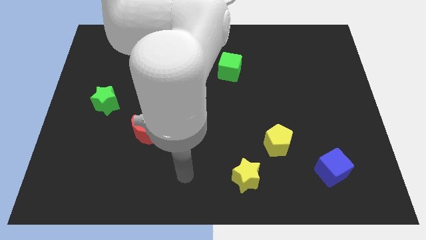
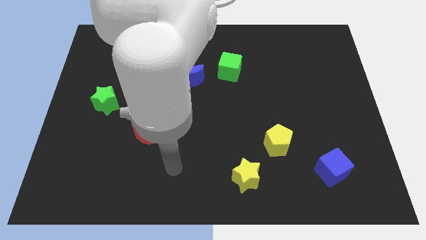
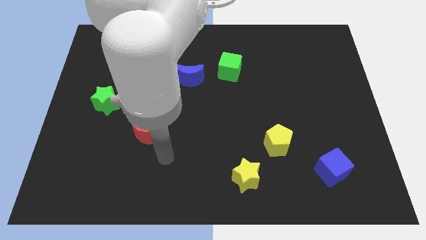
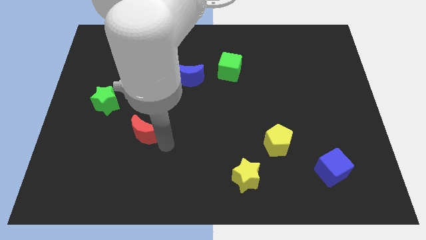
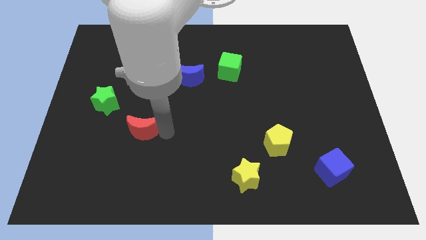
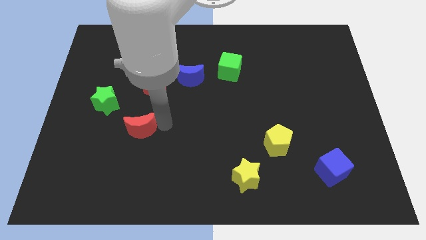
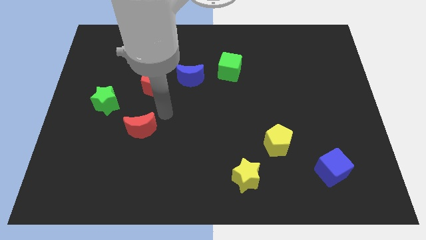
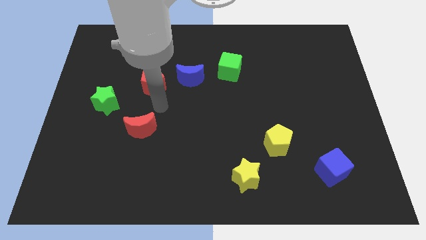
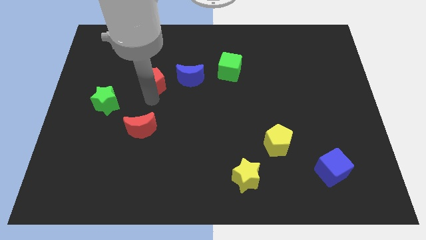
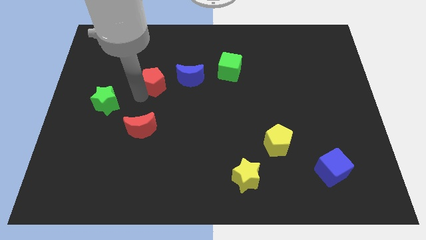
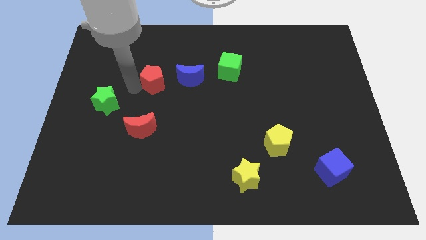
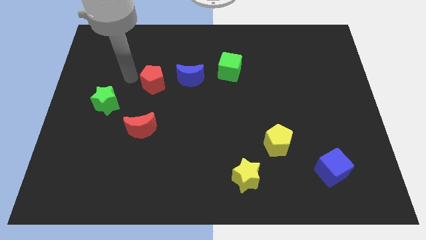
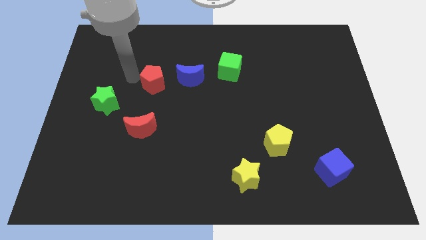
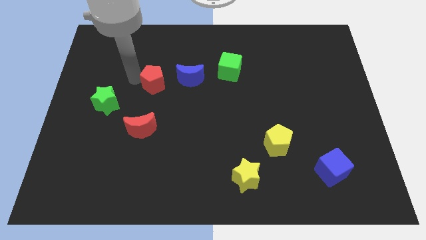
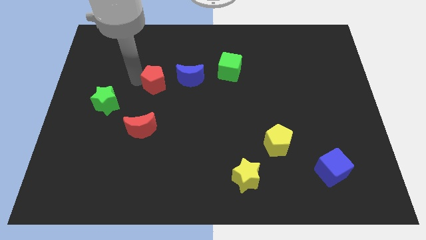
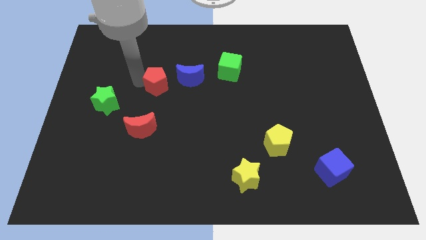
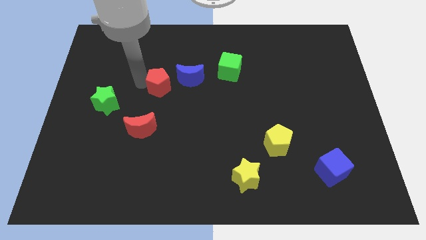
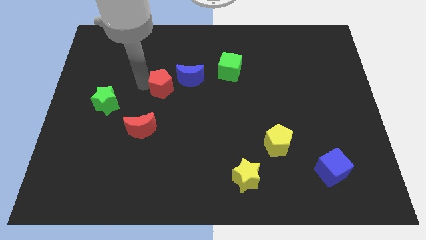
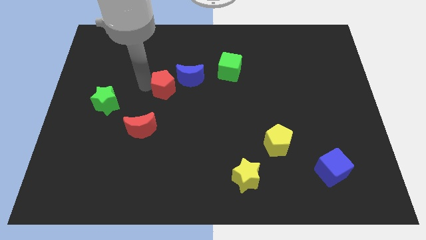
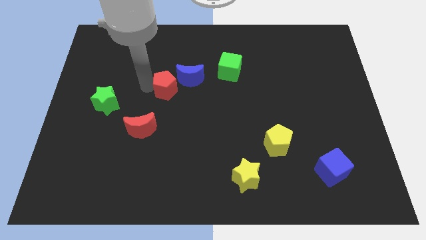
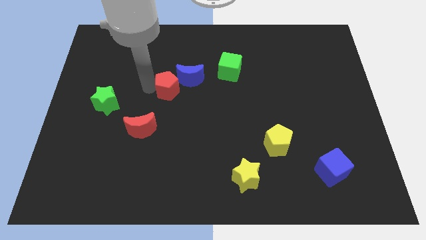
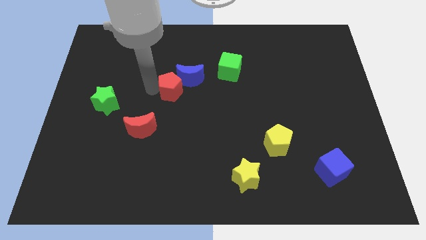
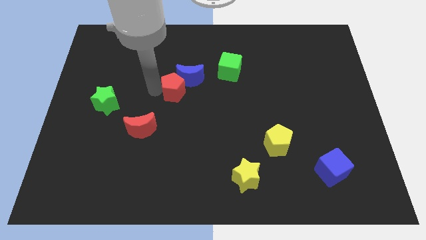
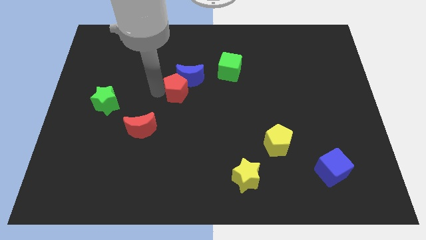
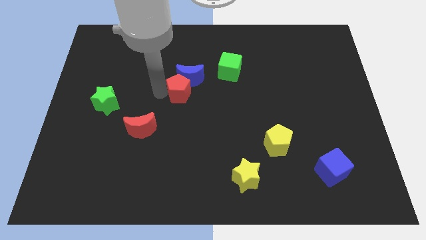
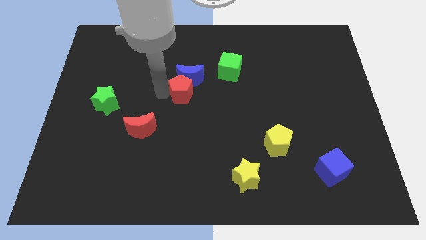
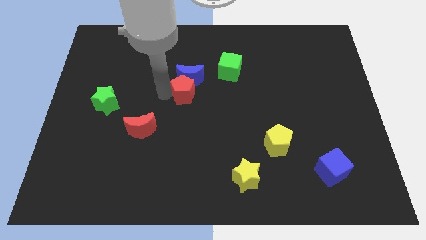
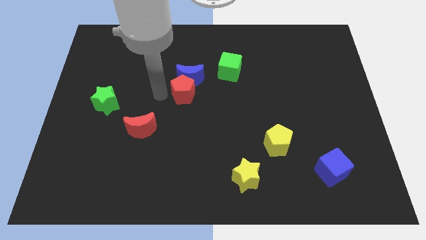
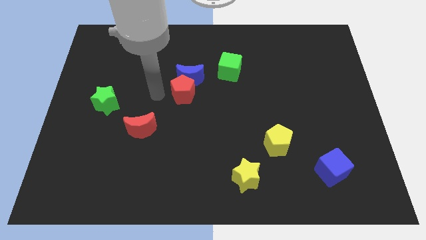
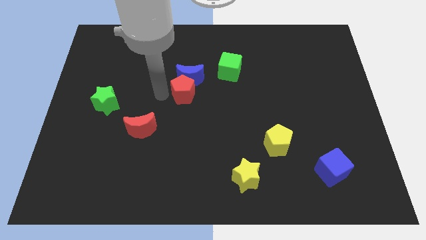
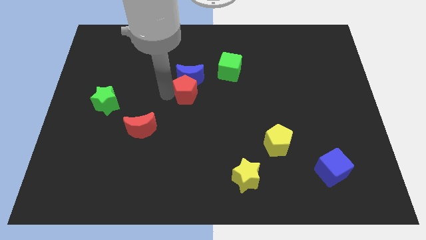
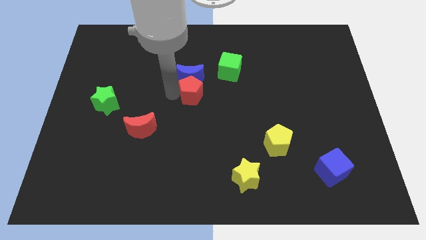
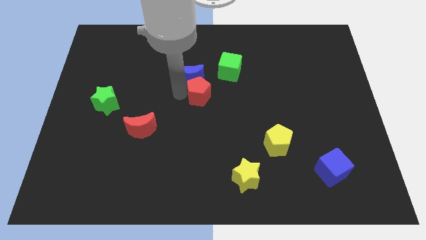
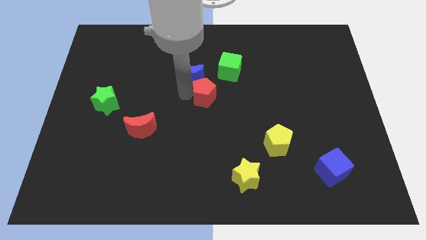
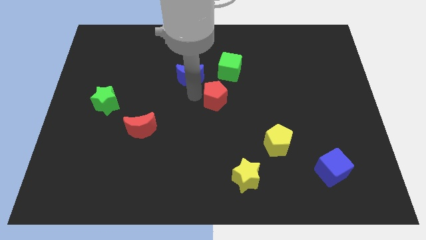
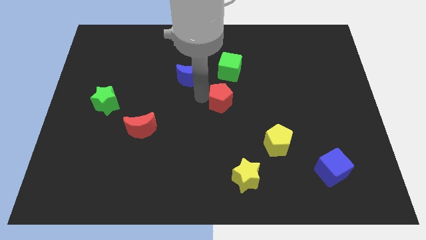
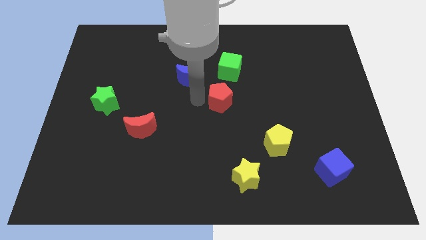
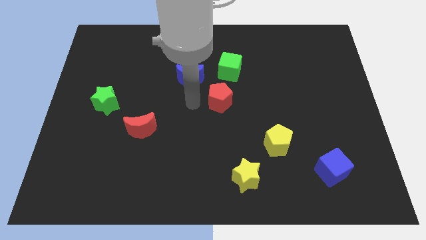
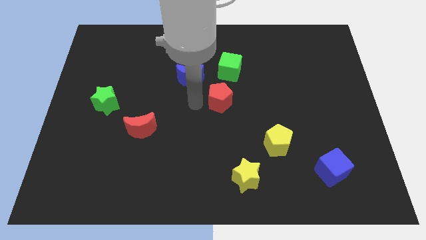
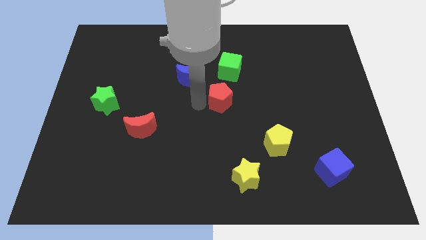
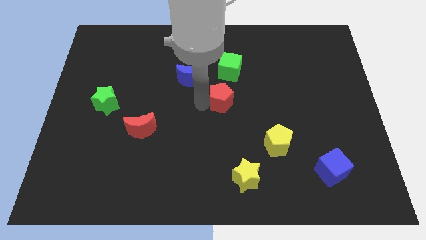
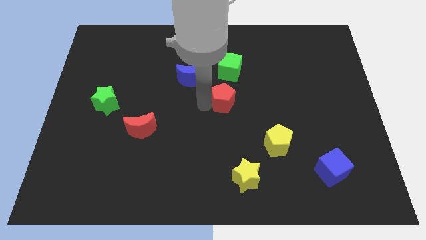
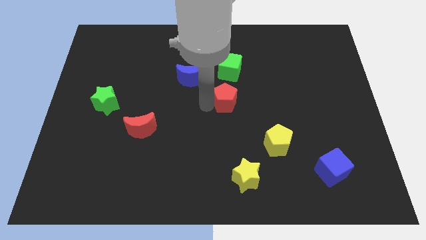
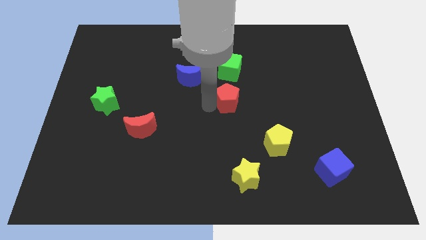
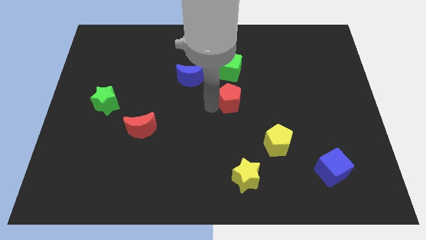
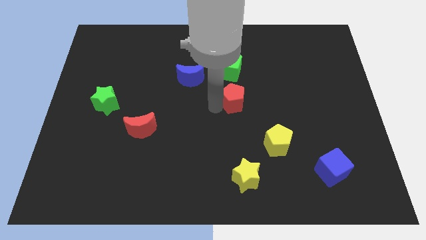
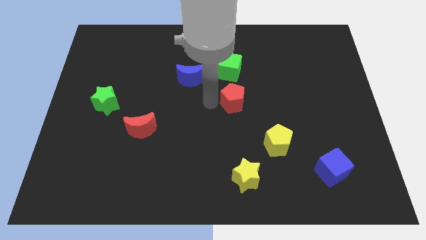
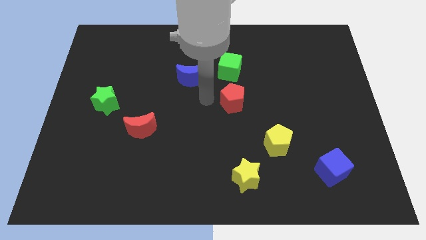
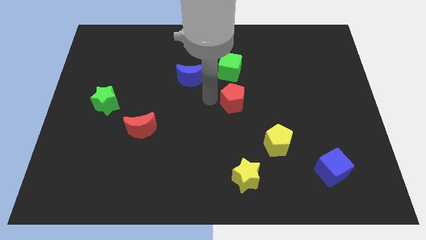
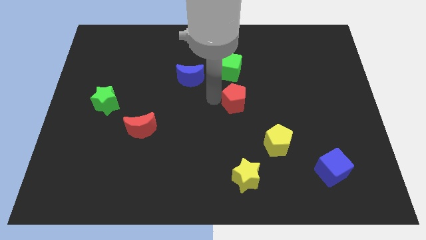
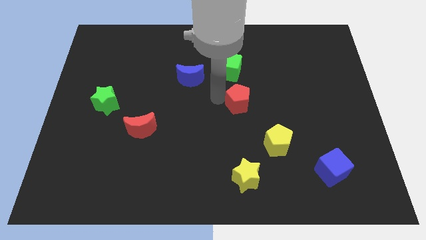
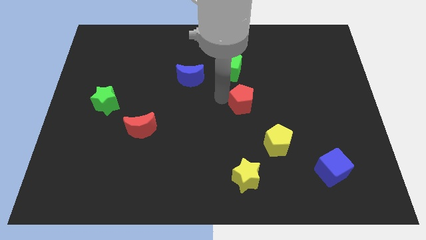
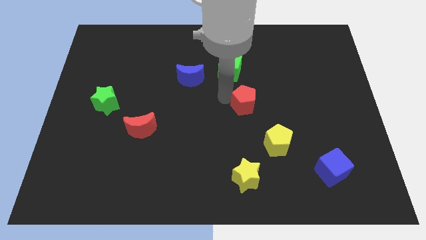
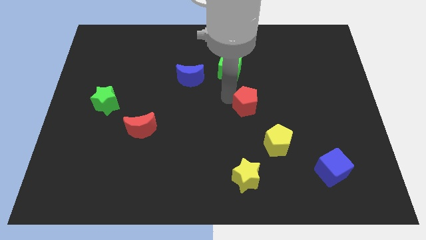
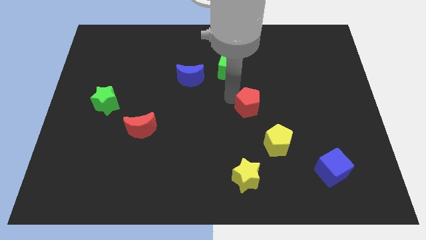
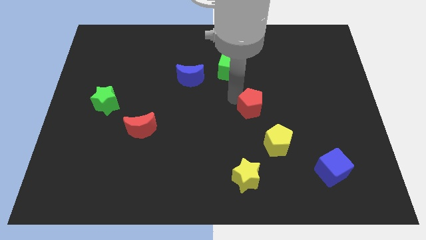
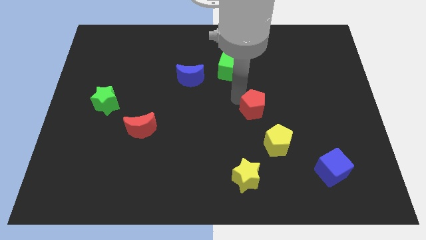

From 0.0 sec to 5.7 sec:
move the red pentagon to the top of the yellow pentagon

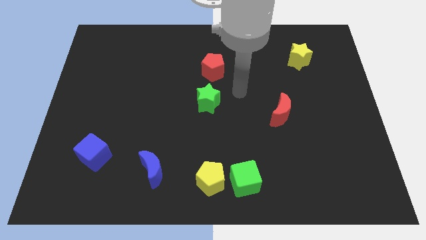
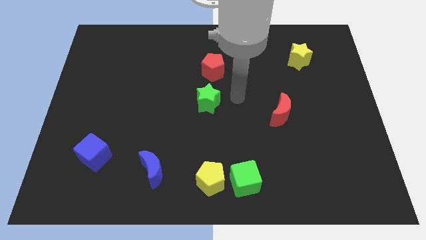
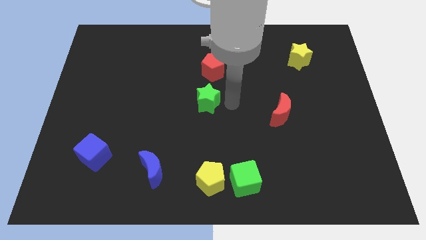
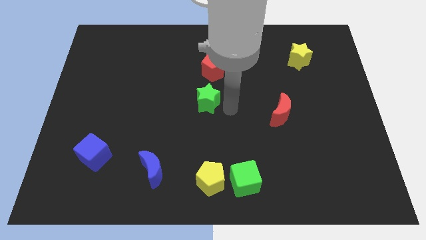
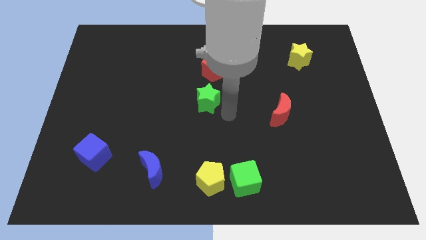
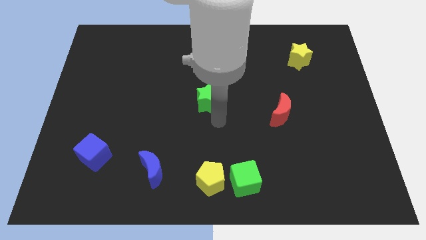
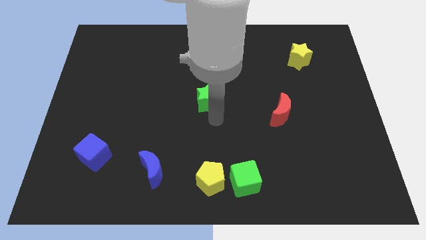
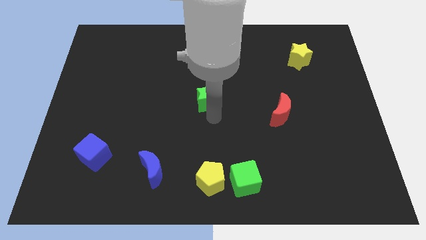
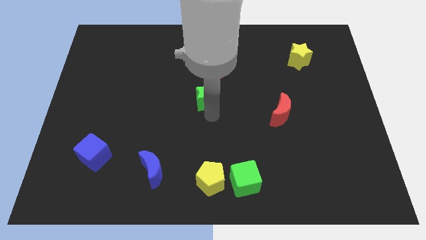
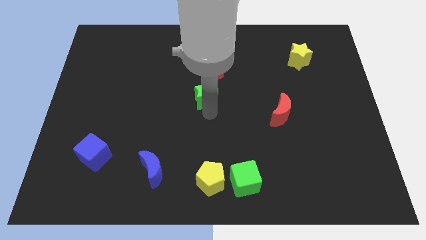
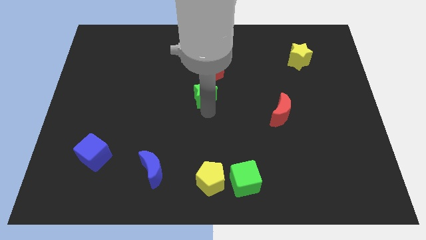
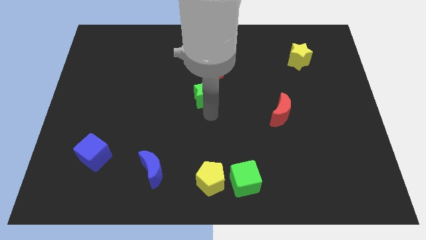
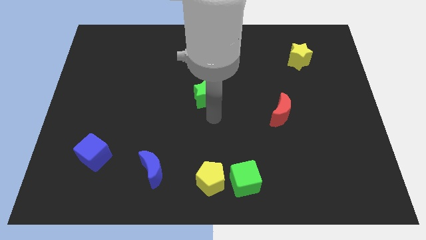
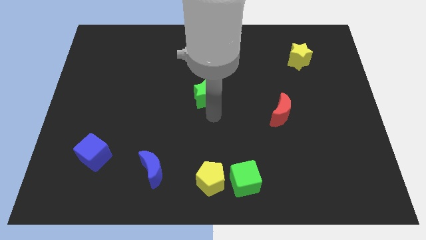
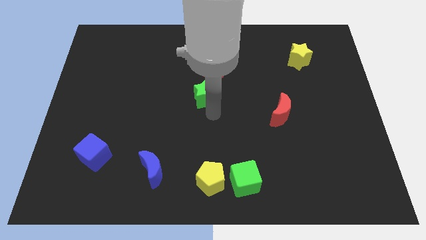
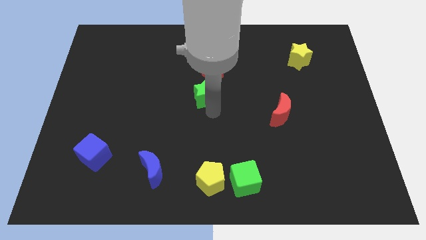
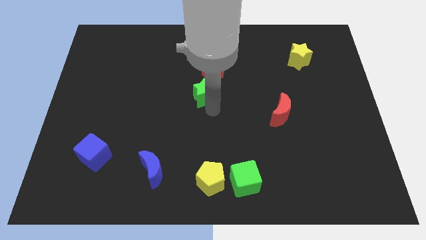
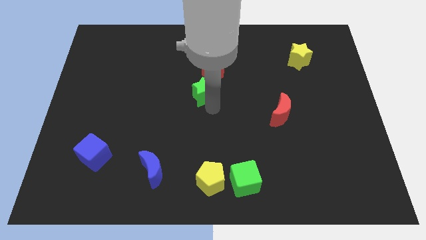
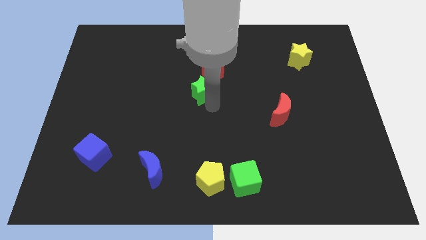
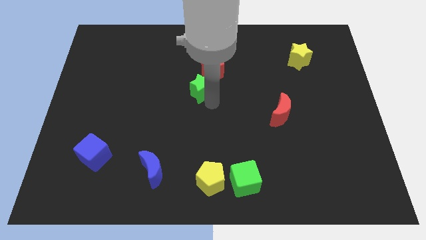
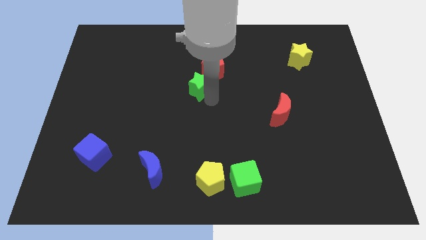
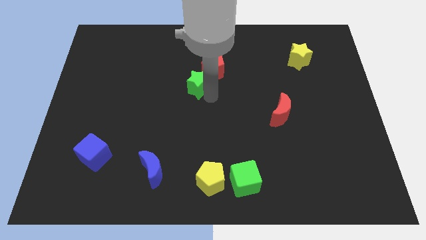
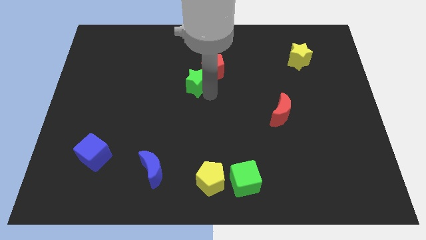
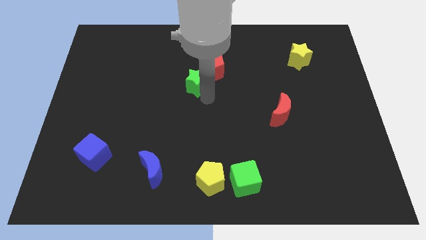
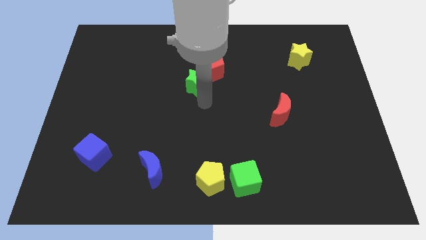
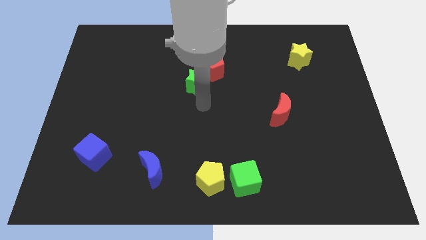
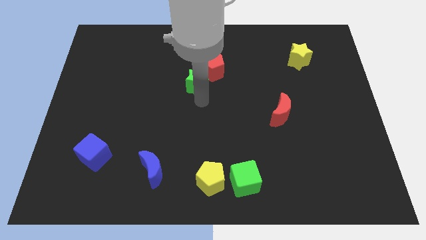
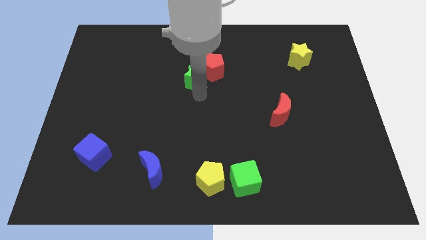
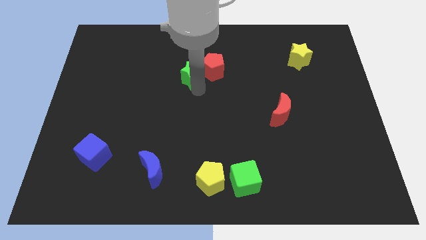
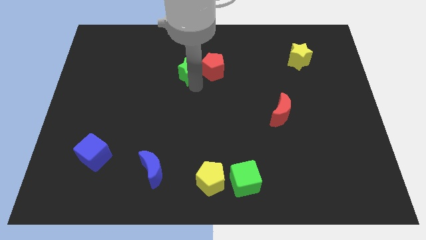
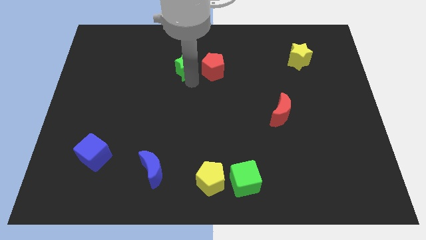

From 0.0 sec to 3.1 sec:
put the green star to the top left of the red pentagon
